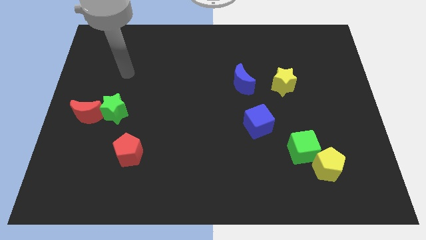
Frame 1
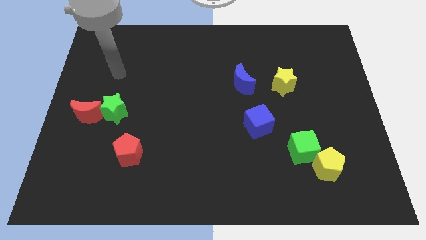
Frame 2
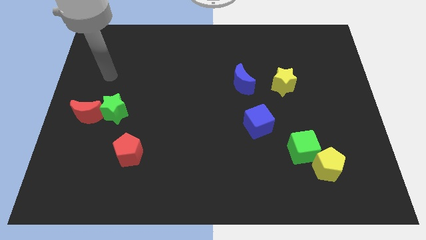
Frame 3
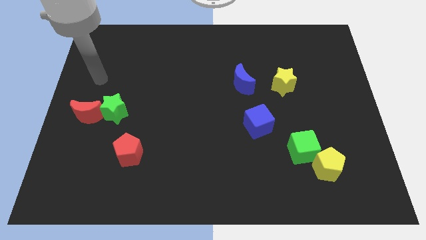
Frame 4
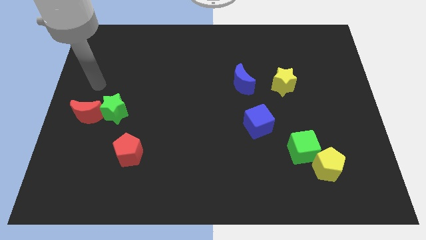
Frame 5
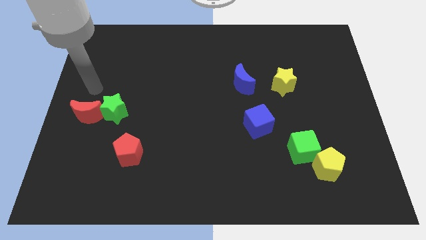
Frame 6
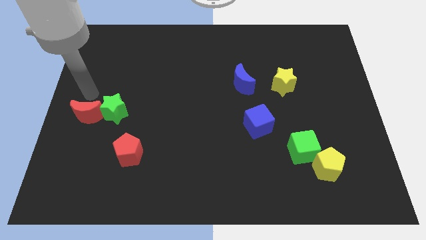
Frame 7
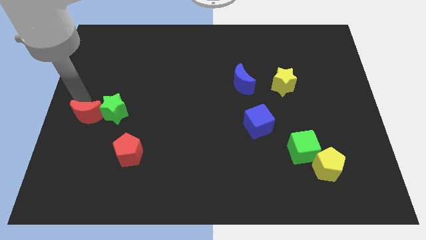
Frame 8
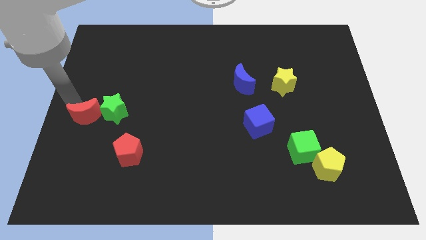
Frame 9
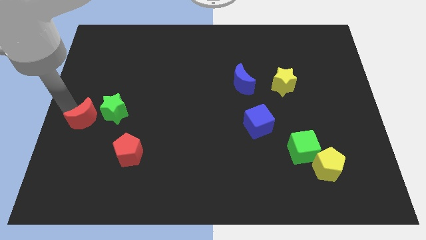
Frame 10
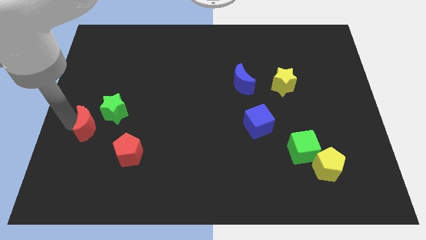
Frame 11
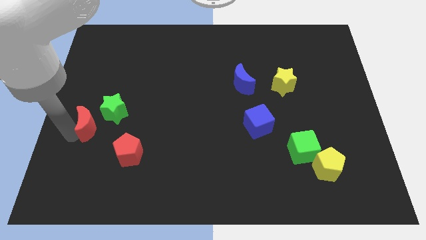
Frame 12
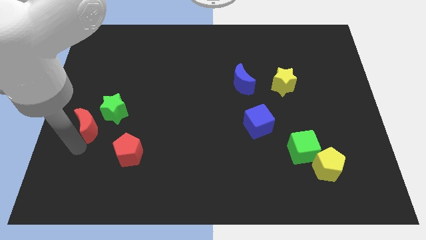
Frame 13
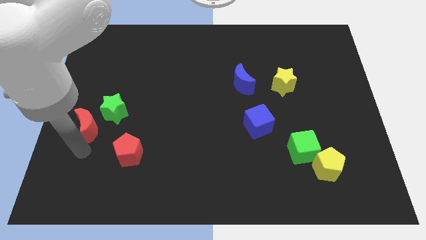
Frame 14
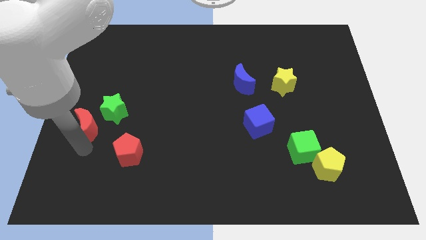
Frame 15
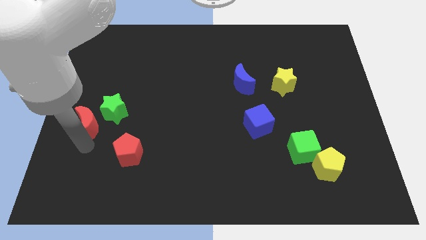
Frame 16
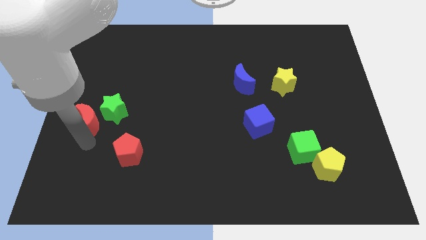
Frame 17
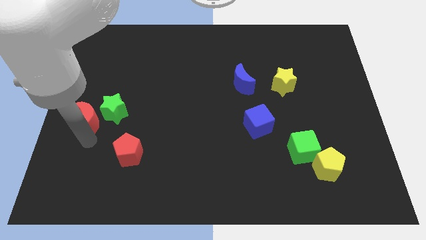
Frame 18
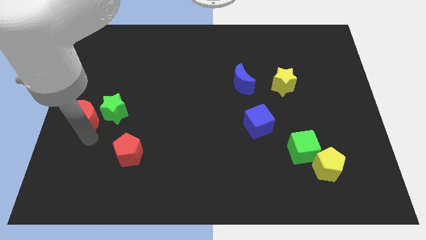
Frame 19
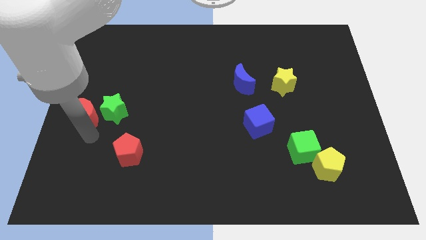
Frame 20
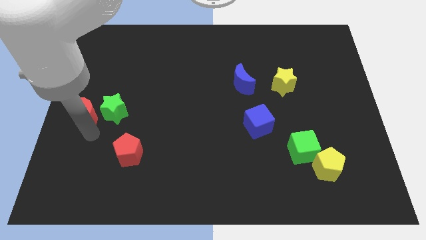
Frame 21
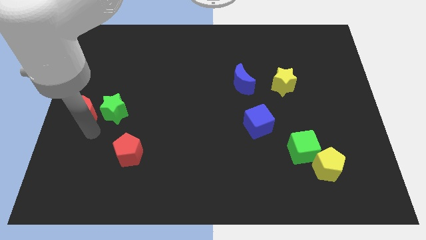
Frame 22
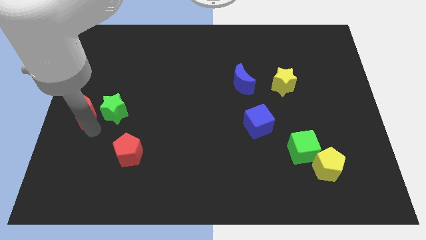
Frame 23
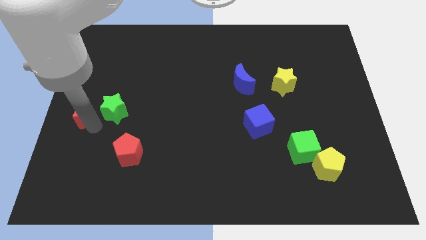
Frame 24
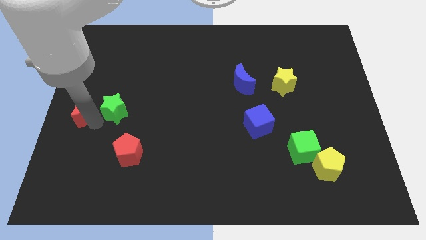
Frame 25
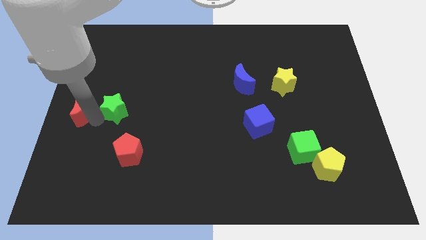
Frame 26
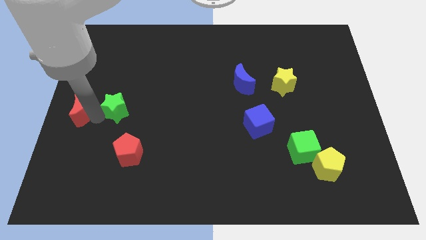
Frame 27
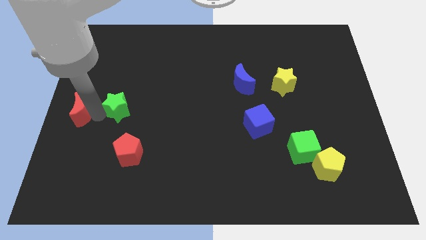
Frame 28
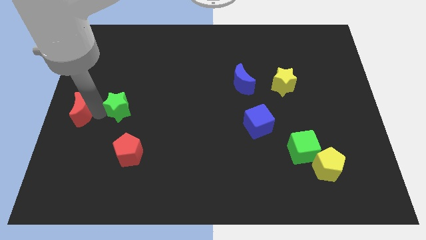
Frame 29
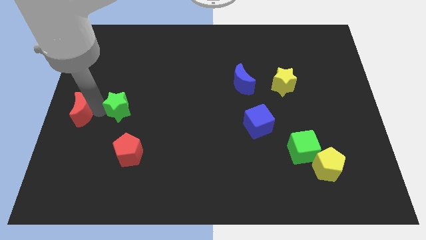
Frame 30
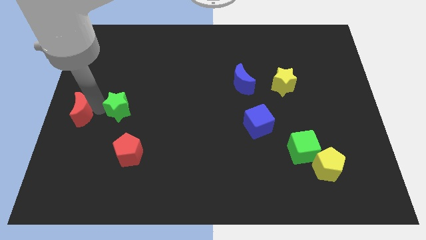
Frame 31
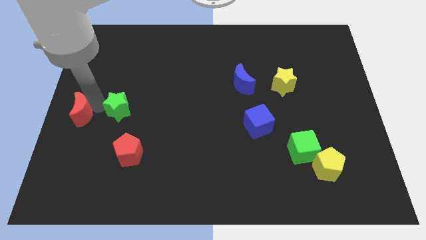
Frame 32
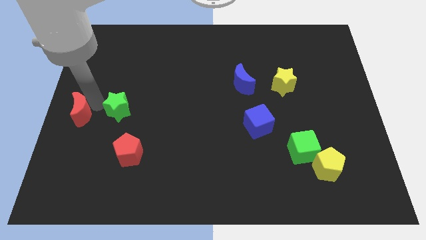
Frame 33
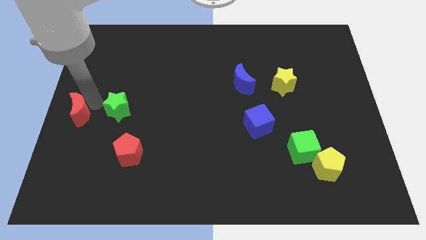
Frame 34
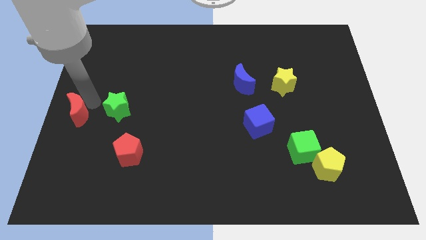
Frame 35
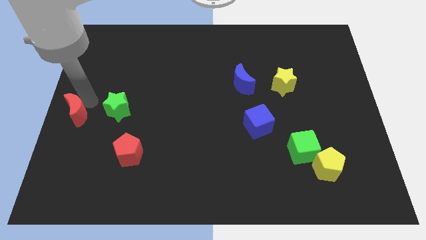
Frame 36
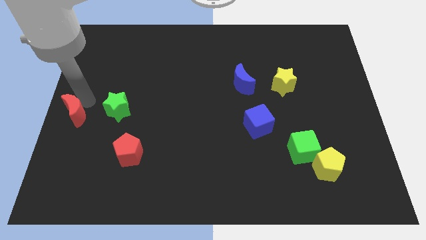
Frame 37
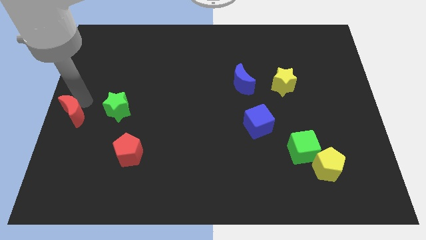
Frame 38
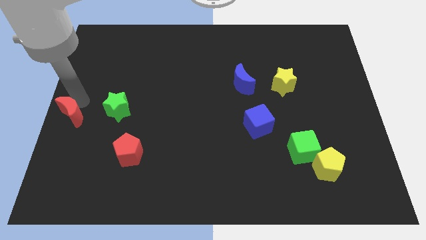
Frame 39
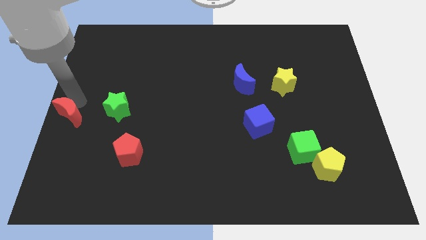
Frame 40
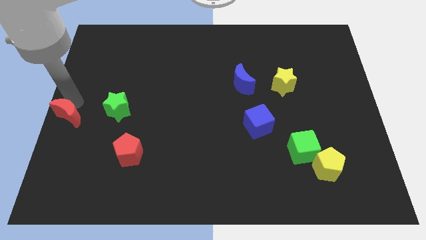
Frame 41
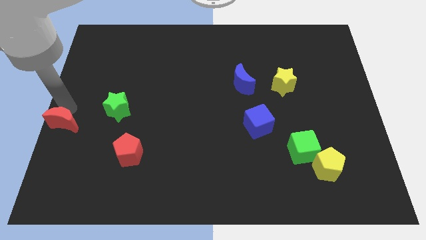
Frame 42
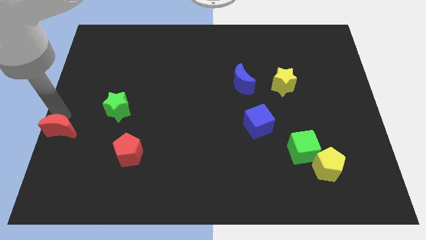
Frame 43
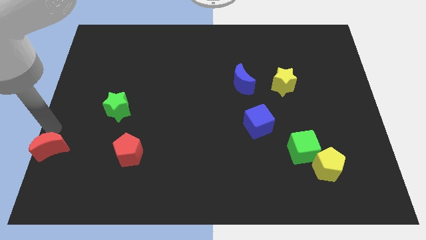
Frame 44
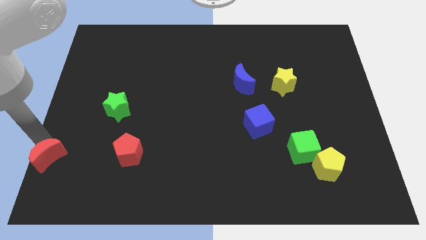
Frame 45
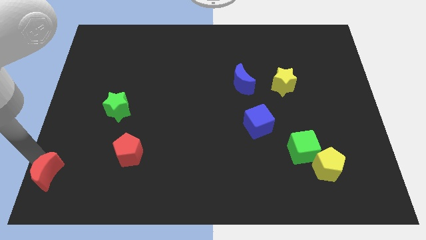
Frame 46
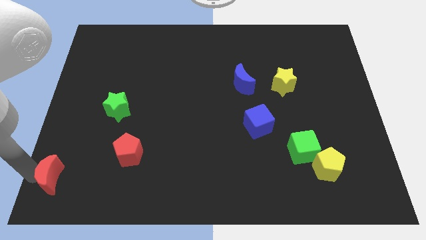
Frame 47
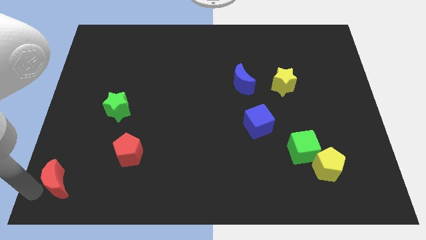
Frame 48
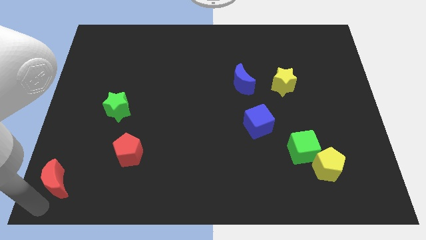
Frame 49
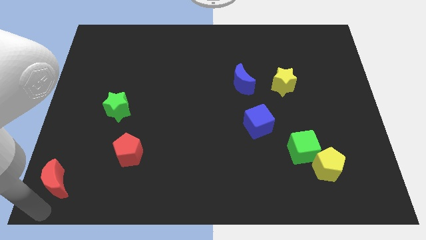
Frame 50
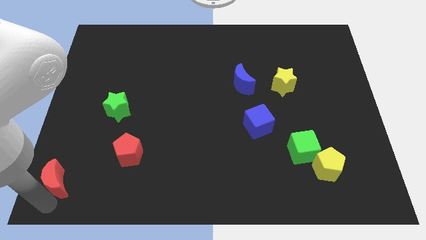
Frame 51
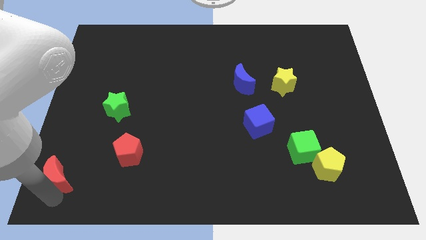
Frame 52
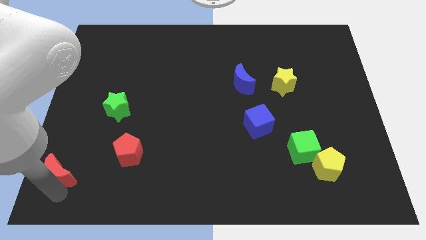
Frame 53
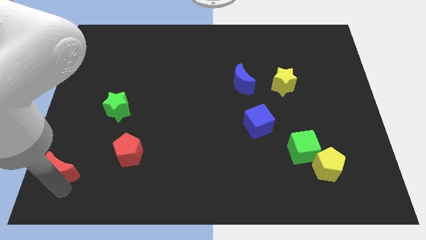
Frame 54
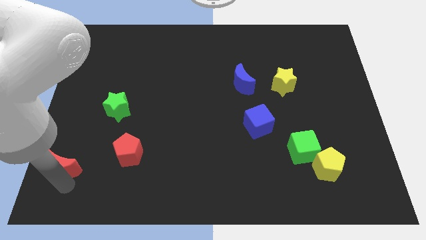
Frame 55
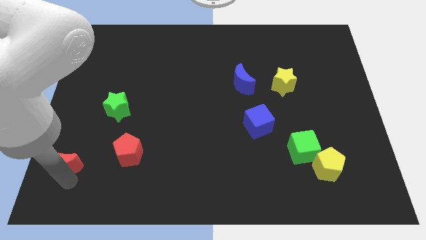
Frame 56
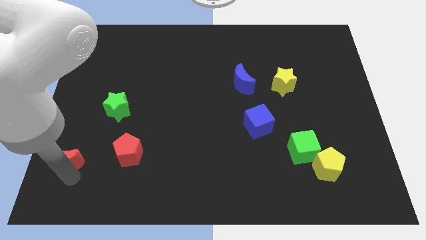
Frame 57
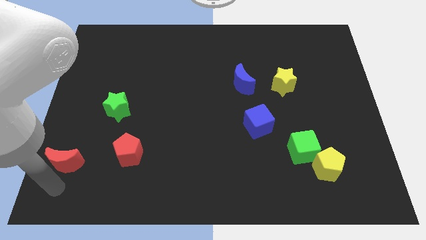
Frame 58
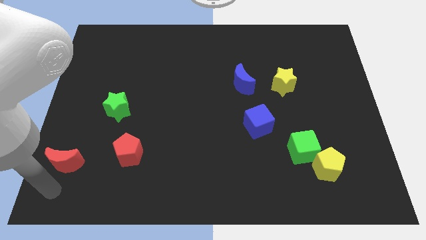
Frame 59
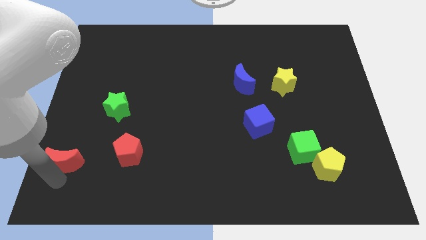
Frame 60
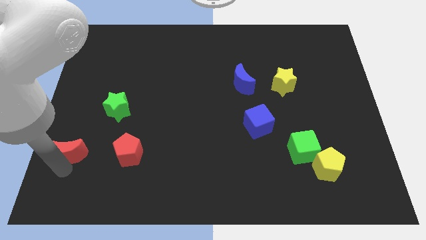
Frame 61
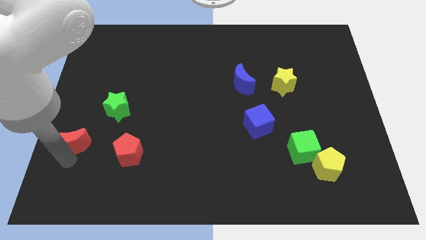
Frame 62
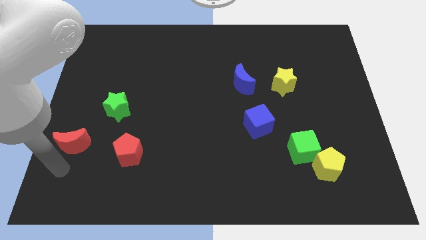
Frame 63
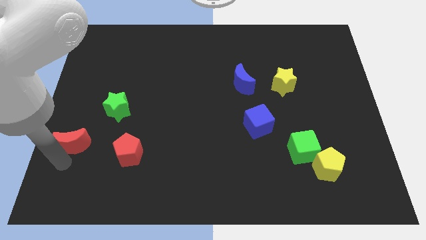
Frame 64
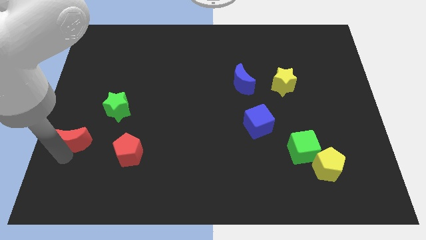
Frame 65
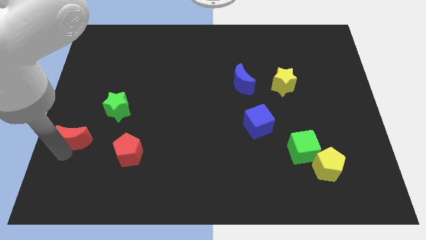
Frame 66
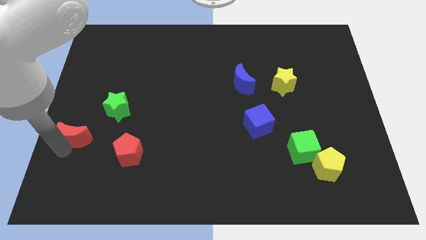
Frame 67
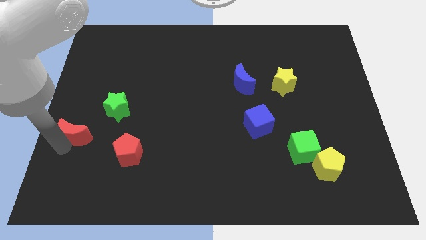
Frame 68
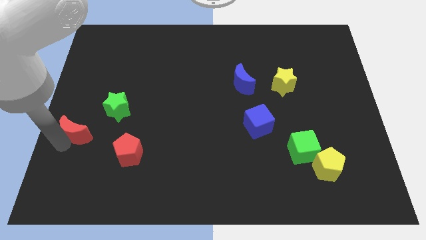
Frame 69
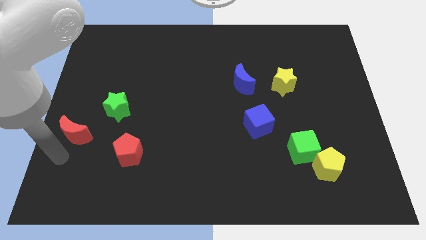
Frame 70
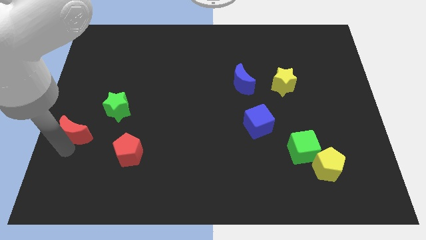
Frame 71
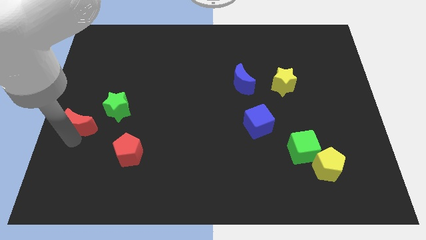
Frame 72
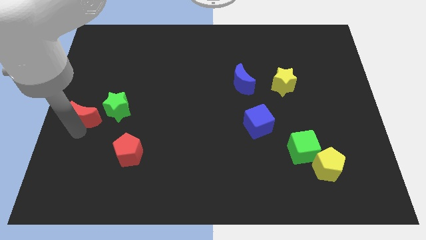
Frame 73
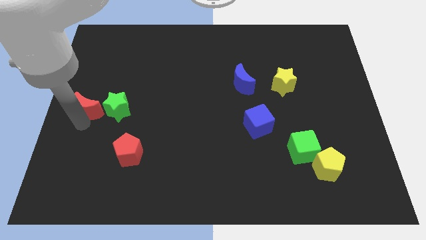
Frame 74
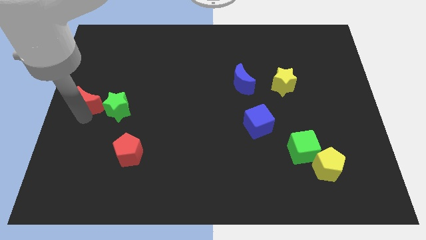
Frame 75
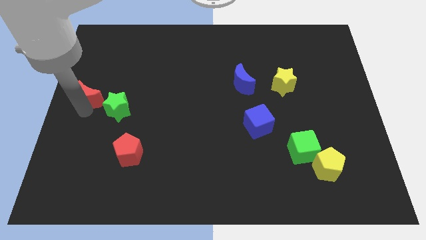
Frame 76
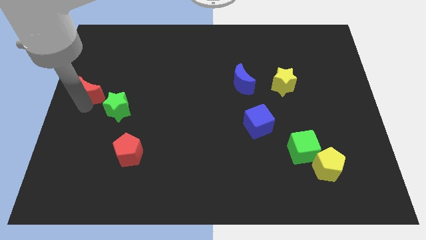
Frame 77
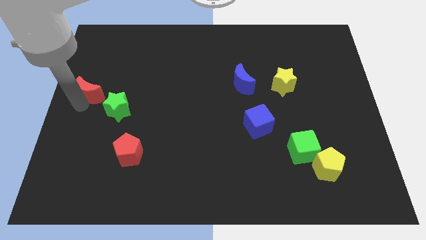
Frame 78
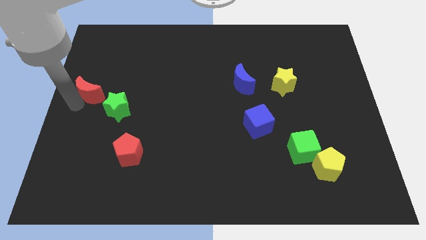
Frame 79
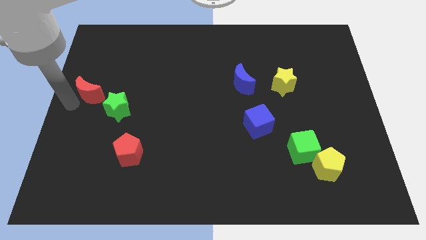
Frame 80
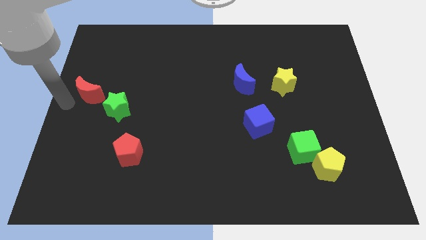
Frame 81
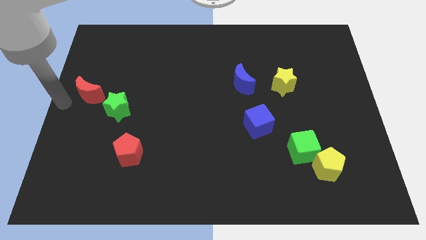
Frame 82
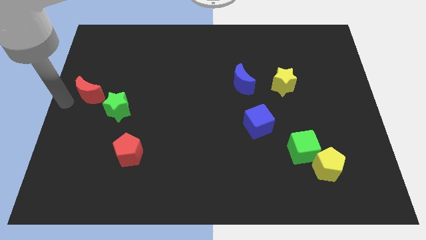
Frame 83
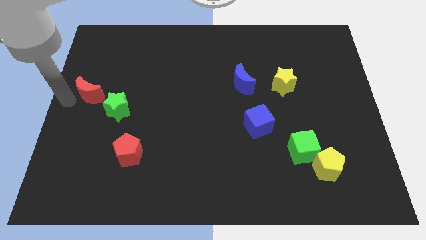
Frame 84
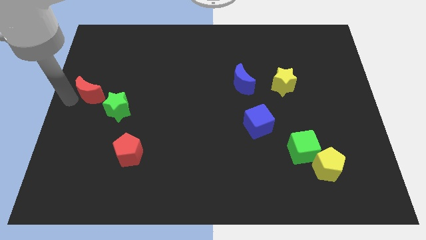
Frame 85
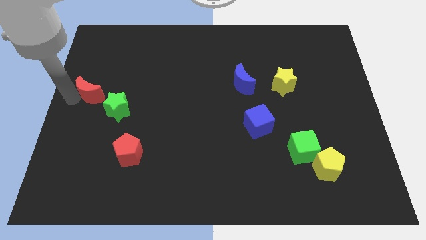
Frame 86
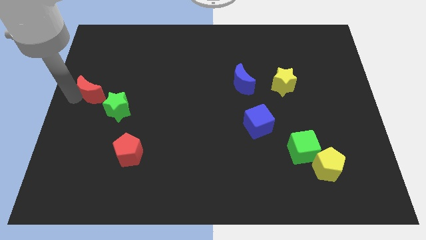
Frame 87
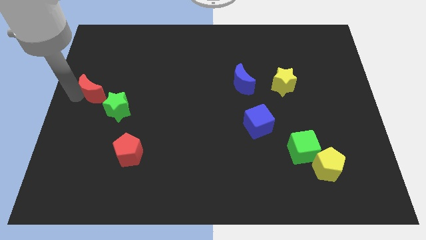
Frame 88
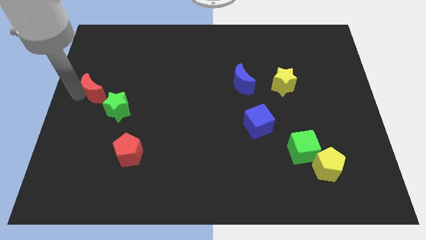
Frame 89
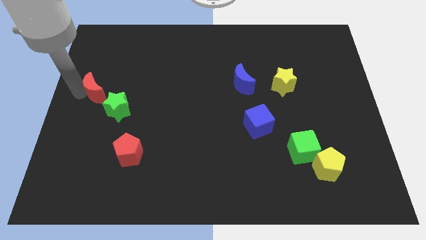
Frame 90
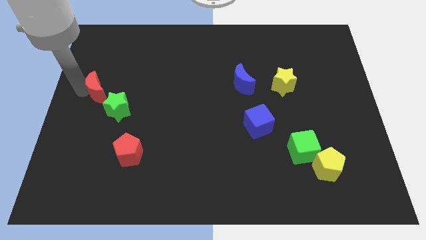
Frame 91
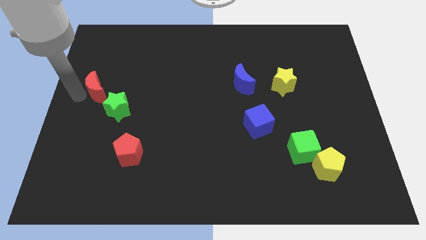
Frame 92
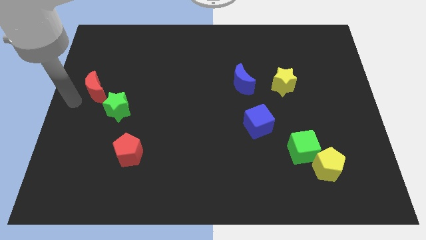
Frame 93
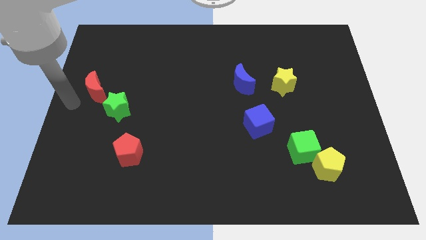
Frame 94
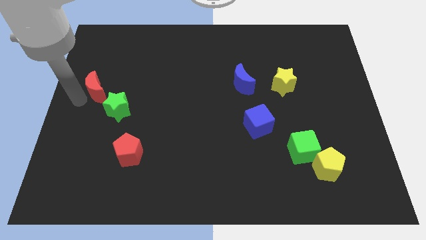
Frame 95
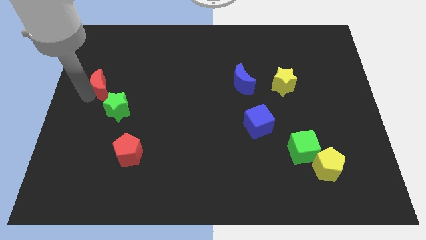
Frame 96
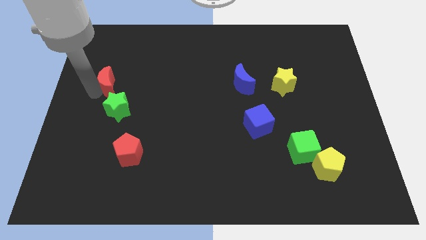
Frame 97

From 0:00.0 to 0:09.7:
slide the red moon to the top of the green star
